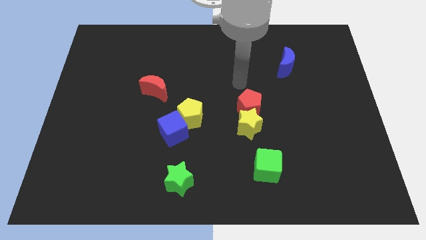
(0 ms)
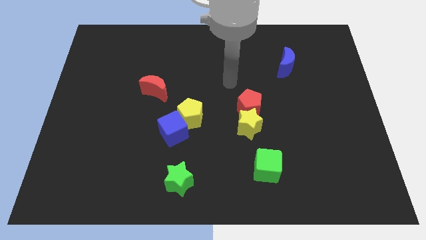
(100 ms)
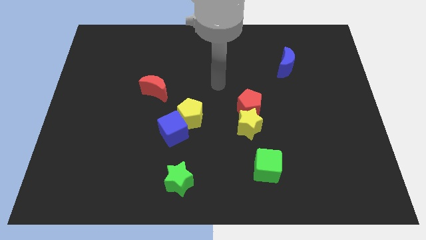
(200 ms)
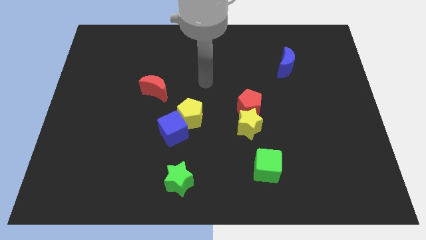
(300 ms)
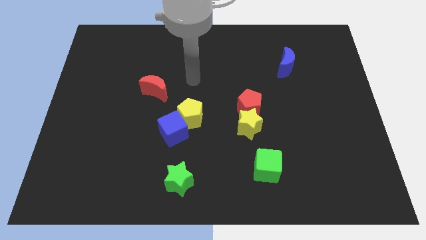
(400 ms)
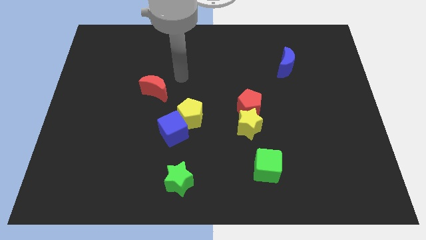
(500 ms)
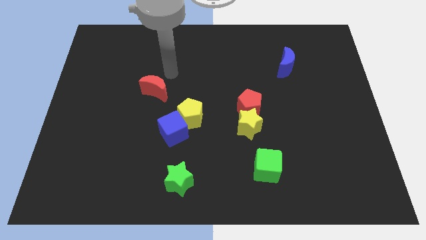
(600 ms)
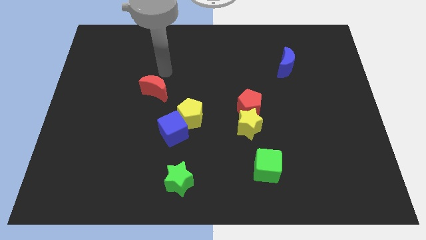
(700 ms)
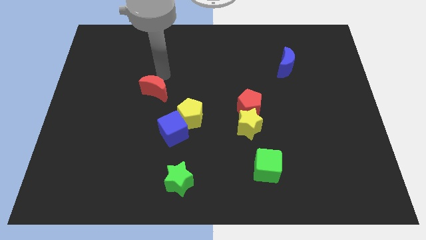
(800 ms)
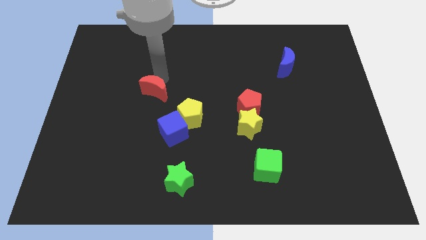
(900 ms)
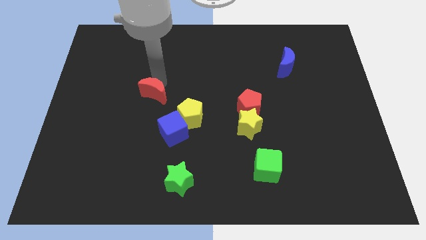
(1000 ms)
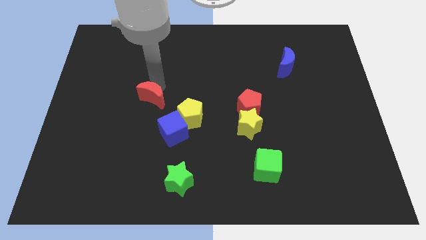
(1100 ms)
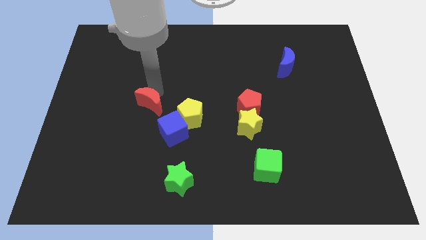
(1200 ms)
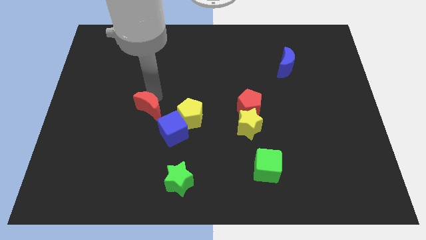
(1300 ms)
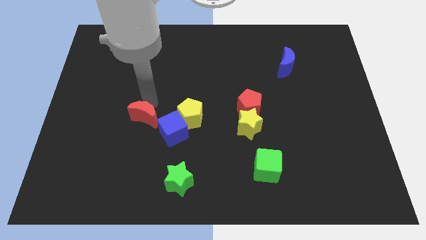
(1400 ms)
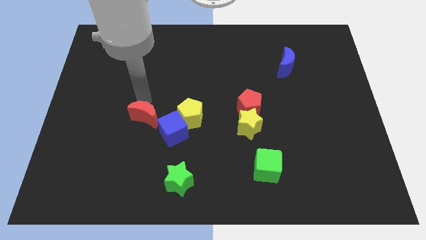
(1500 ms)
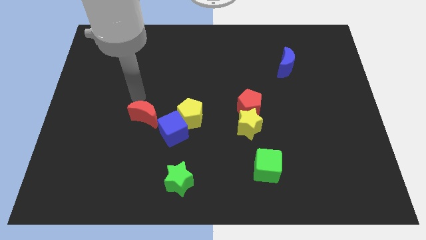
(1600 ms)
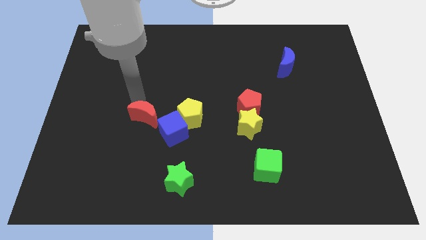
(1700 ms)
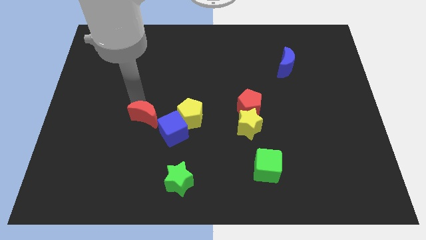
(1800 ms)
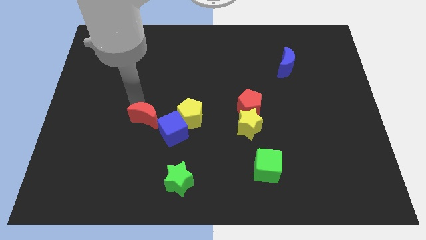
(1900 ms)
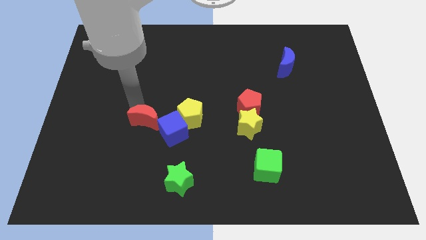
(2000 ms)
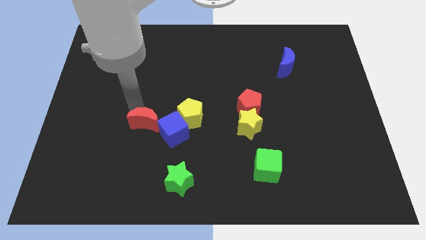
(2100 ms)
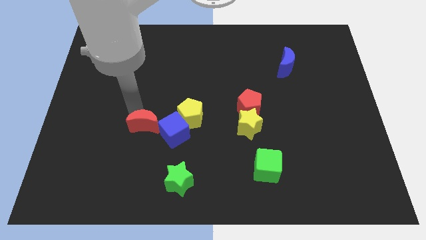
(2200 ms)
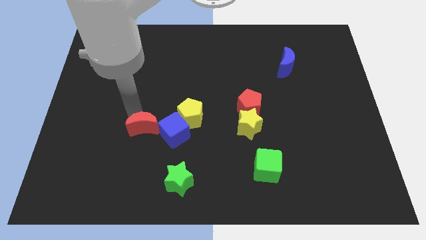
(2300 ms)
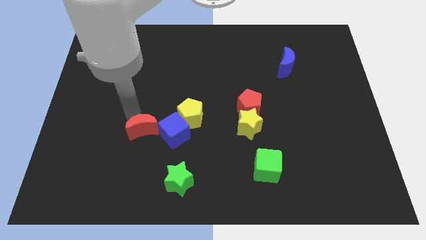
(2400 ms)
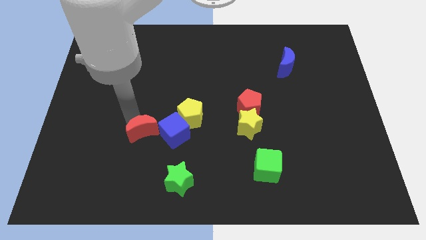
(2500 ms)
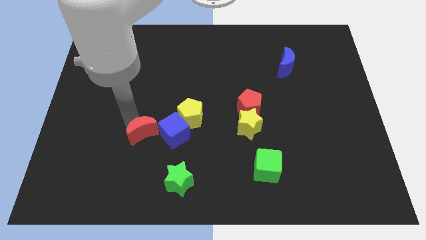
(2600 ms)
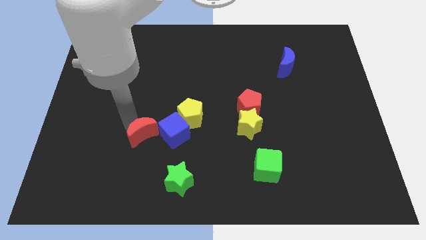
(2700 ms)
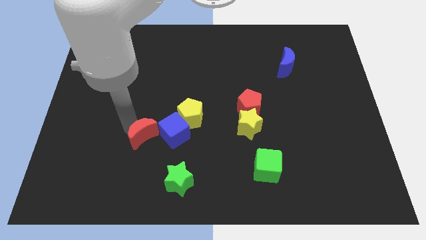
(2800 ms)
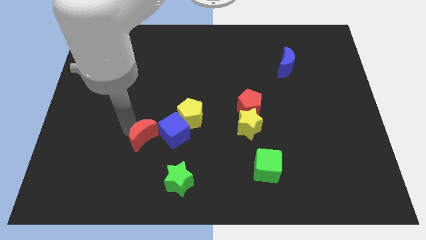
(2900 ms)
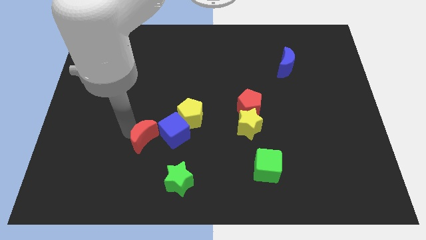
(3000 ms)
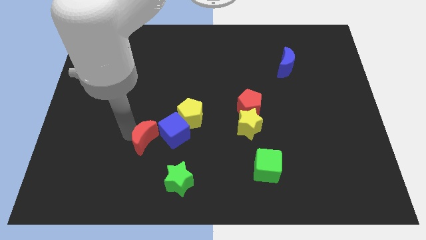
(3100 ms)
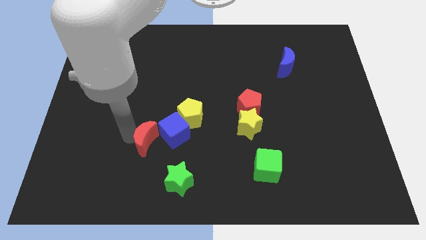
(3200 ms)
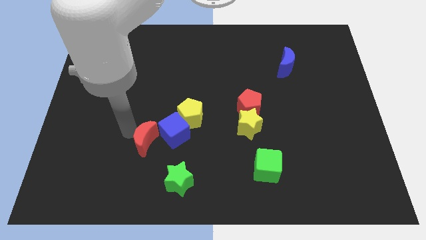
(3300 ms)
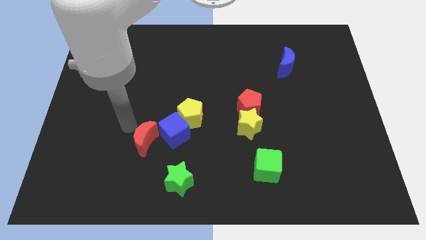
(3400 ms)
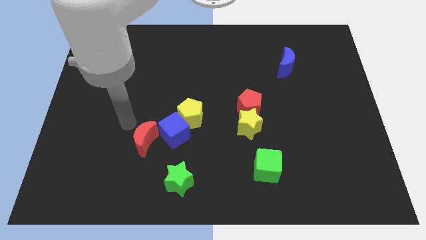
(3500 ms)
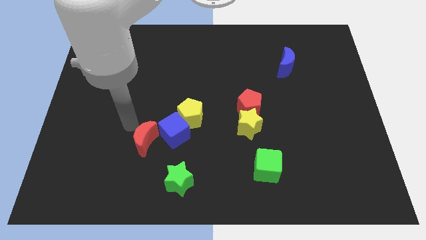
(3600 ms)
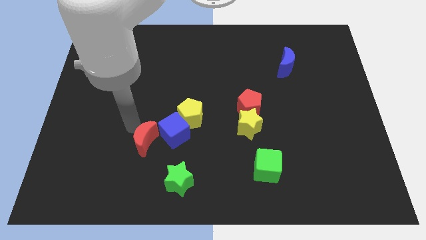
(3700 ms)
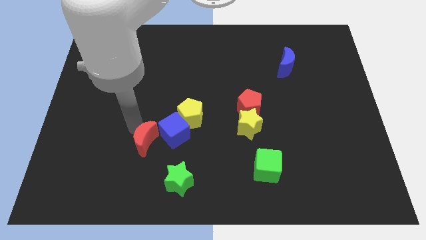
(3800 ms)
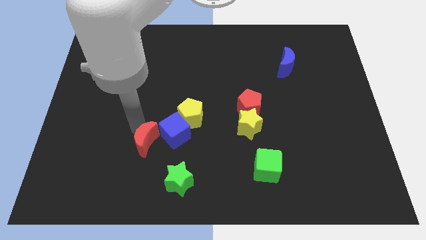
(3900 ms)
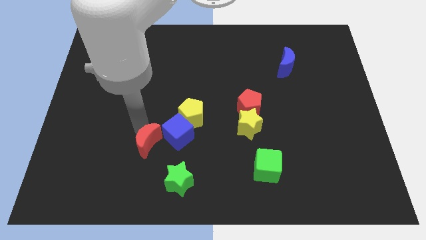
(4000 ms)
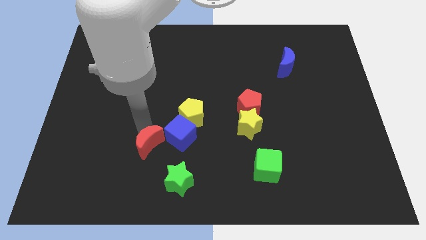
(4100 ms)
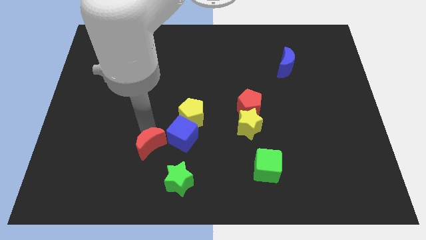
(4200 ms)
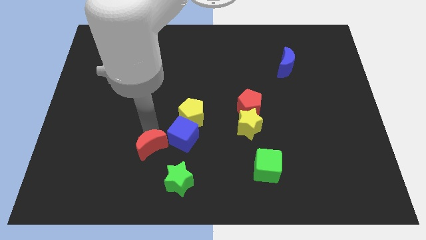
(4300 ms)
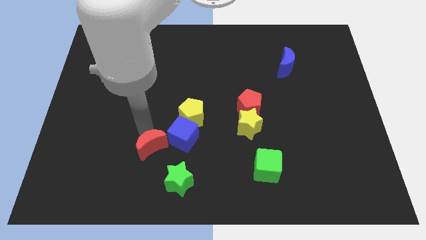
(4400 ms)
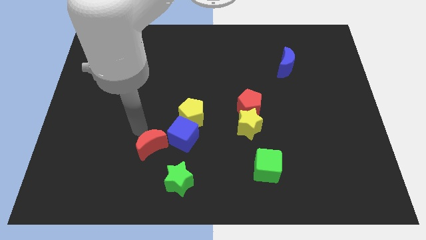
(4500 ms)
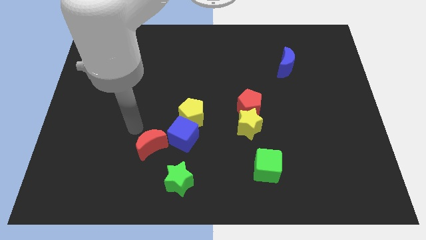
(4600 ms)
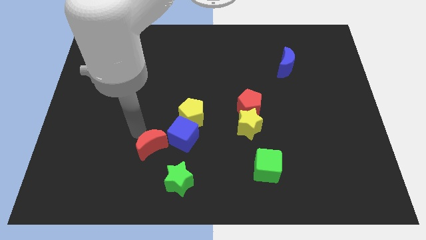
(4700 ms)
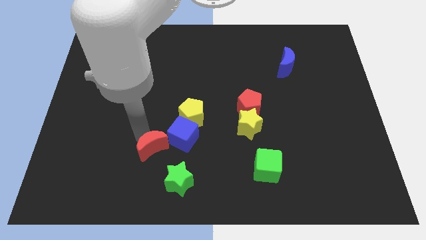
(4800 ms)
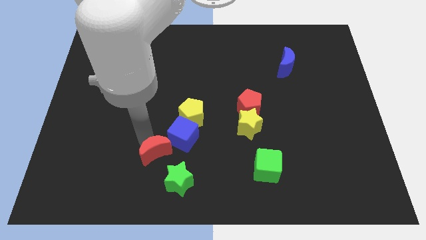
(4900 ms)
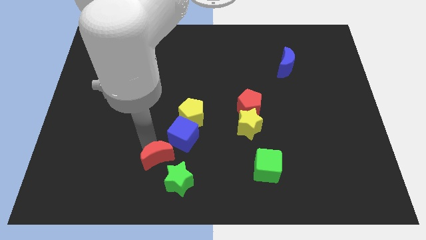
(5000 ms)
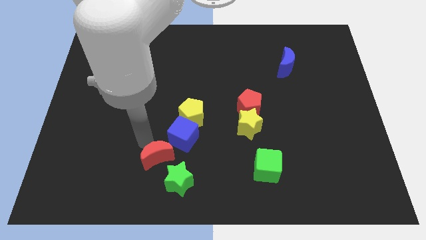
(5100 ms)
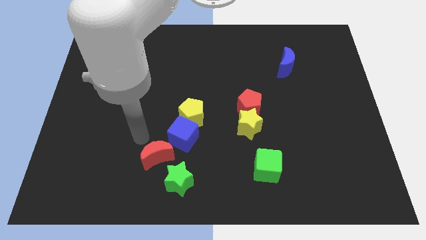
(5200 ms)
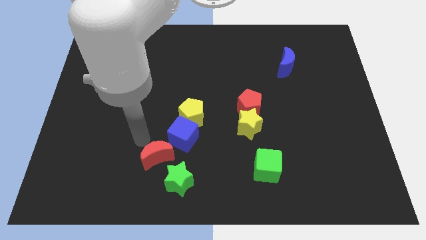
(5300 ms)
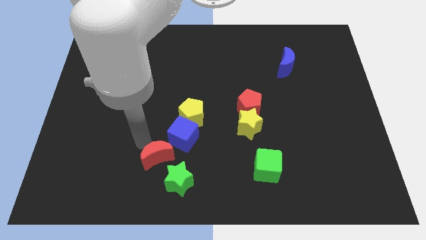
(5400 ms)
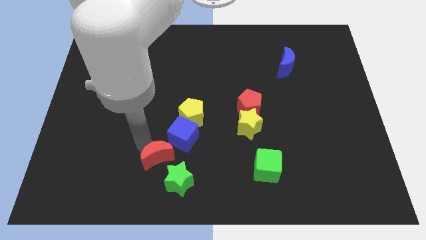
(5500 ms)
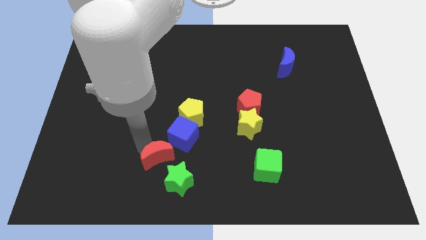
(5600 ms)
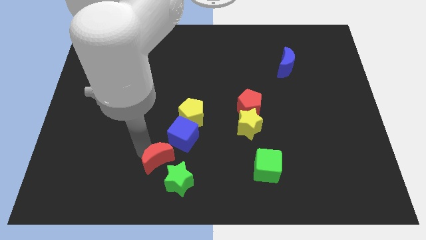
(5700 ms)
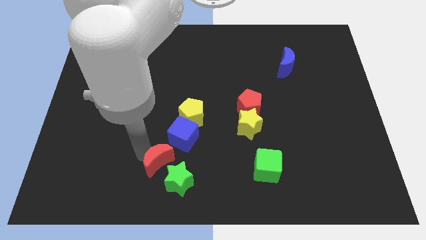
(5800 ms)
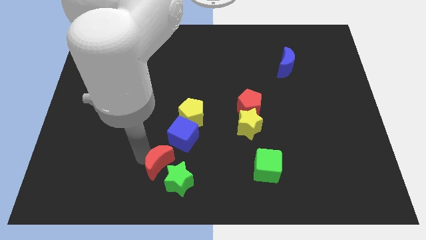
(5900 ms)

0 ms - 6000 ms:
move the red moon close to the green star
